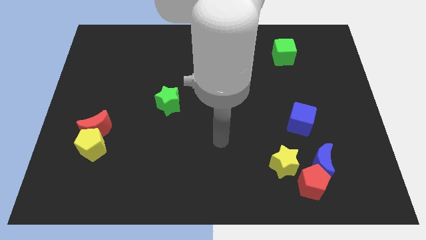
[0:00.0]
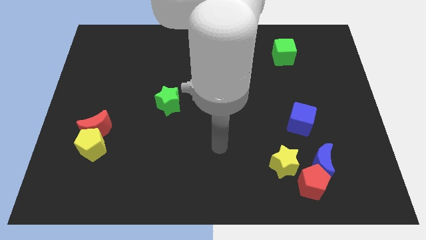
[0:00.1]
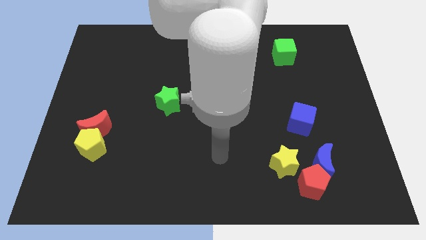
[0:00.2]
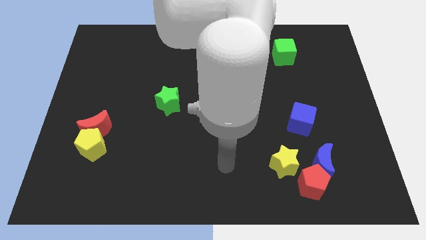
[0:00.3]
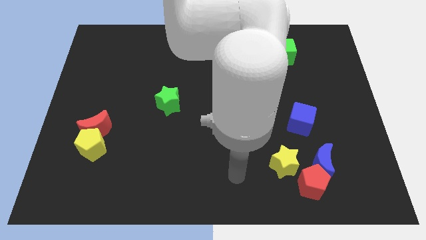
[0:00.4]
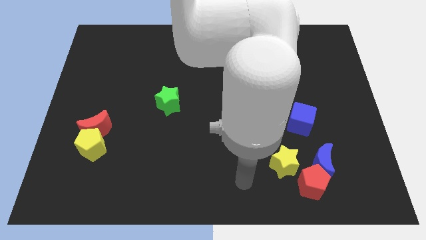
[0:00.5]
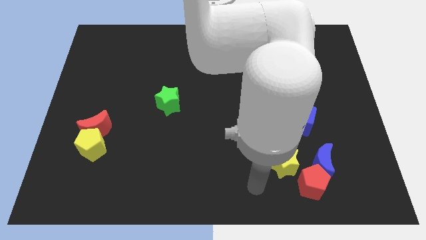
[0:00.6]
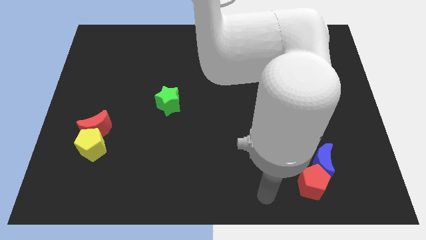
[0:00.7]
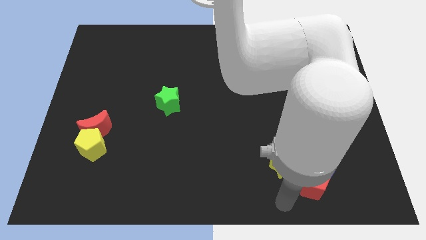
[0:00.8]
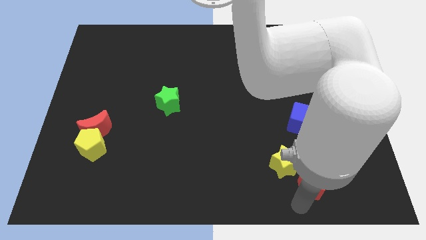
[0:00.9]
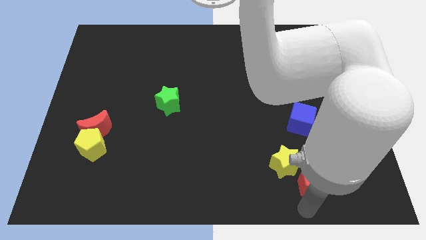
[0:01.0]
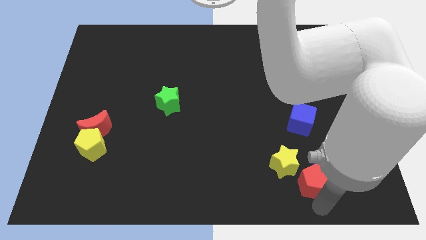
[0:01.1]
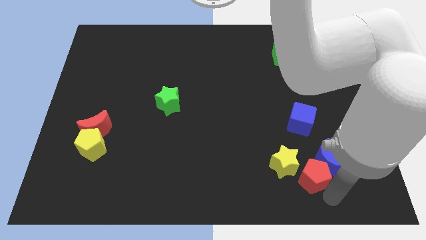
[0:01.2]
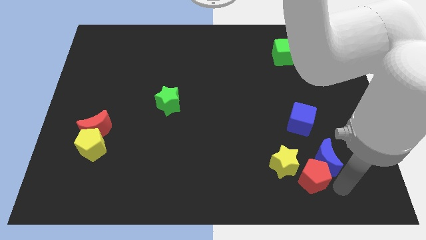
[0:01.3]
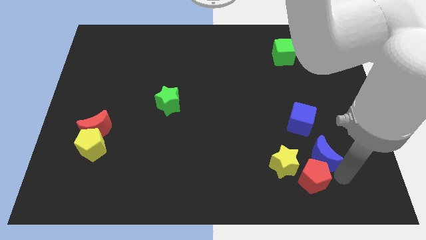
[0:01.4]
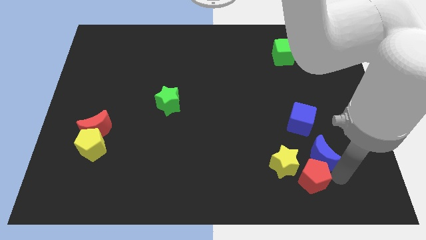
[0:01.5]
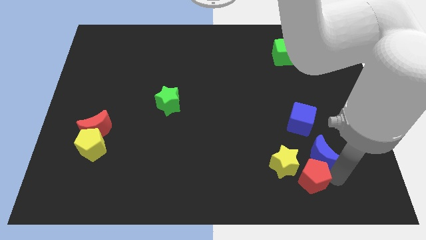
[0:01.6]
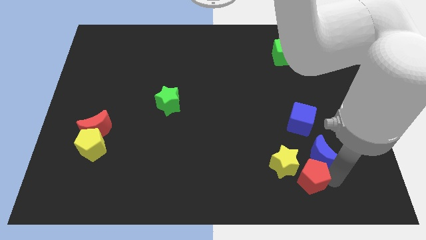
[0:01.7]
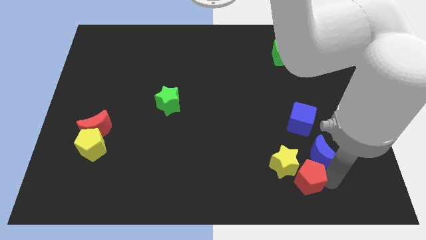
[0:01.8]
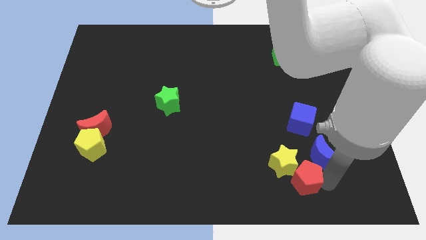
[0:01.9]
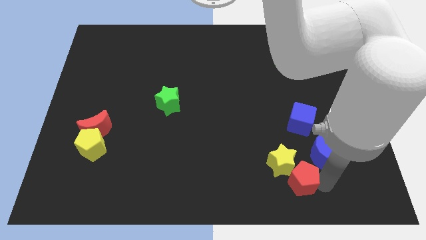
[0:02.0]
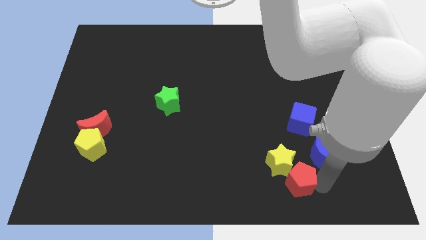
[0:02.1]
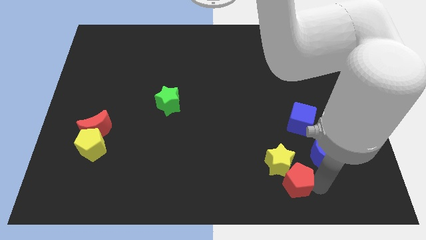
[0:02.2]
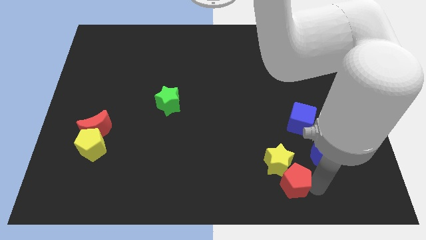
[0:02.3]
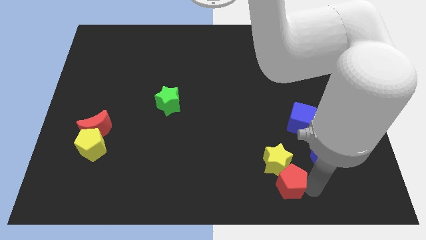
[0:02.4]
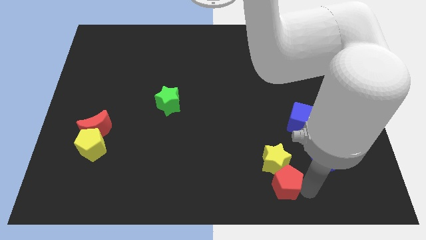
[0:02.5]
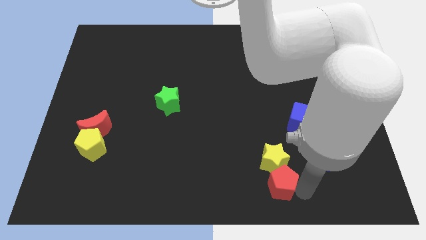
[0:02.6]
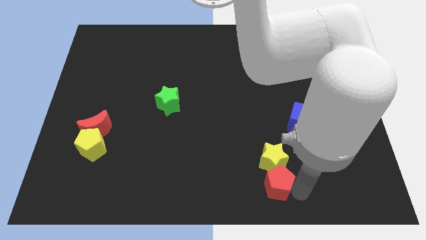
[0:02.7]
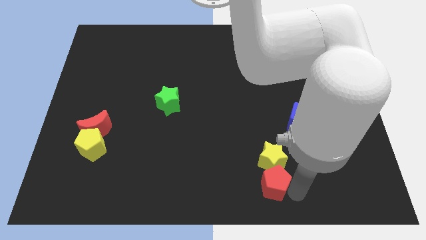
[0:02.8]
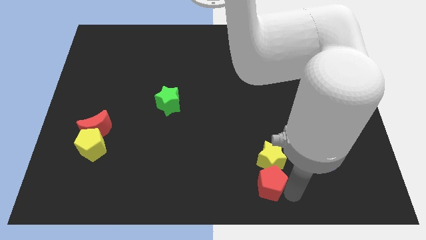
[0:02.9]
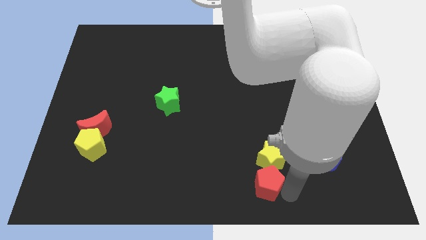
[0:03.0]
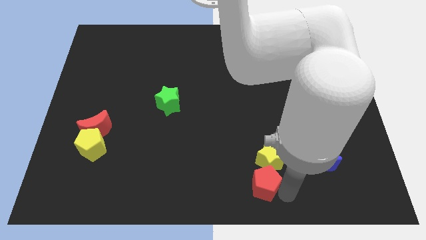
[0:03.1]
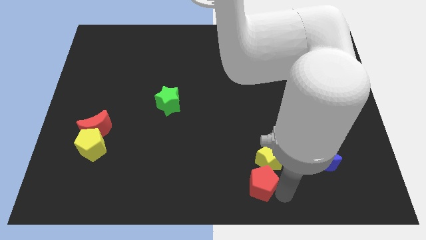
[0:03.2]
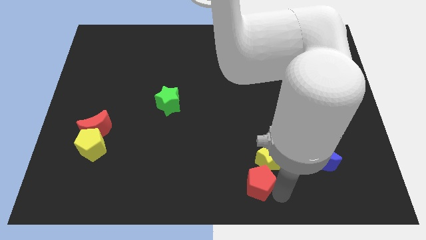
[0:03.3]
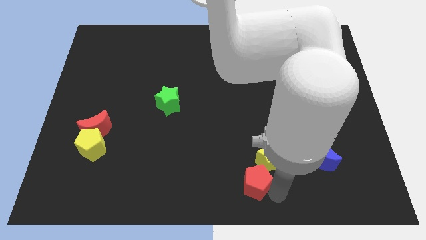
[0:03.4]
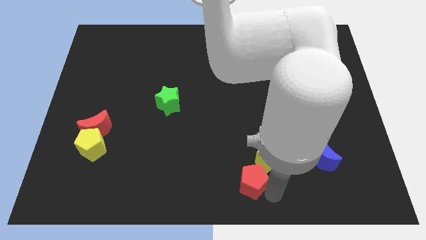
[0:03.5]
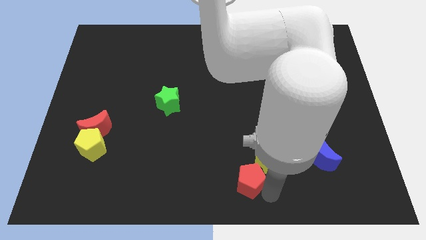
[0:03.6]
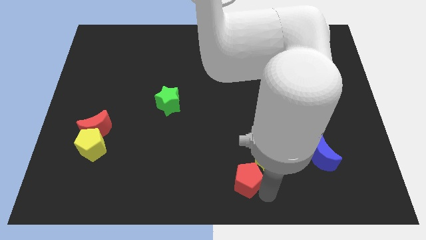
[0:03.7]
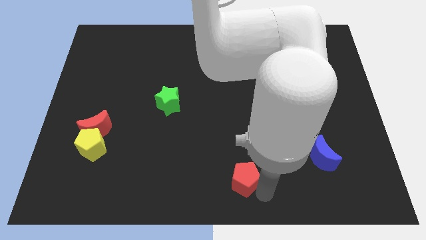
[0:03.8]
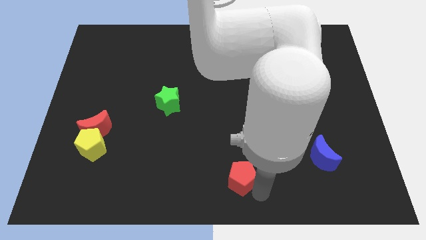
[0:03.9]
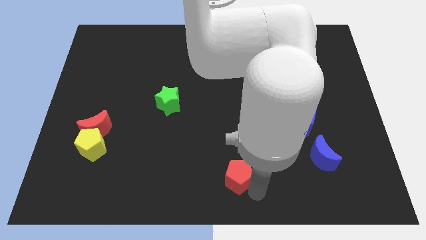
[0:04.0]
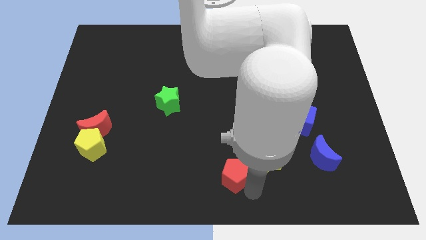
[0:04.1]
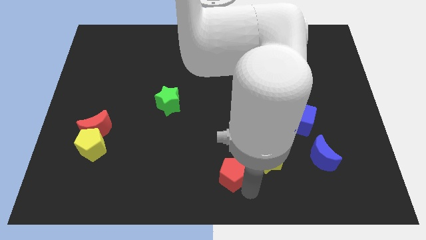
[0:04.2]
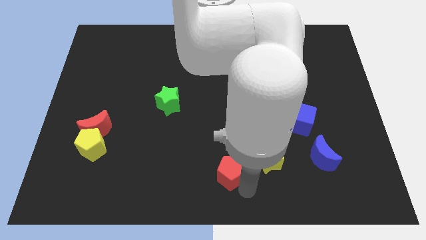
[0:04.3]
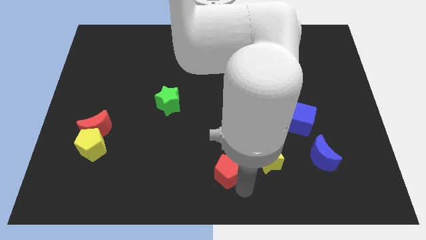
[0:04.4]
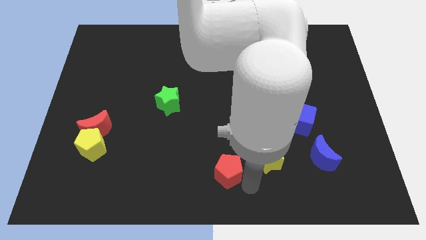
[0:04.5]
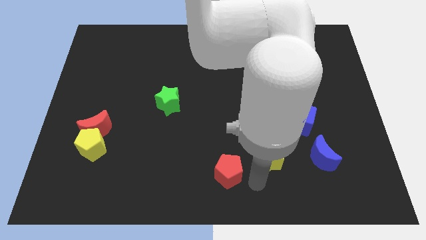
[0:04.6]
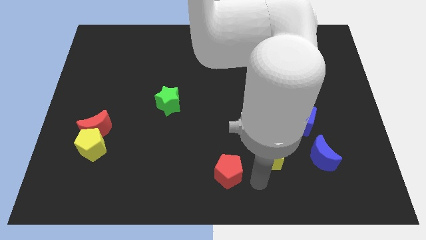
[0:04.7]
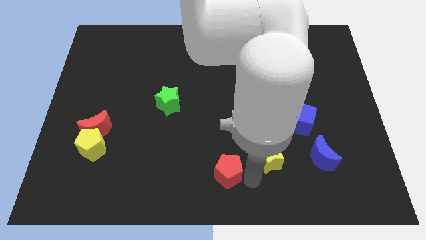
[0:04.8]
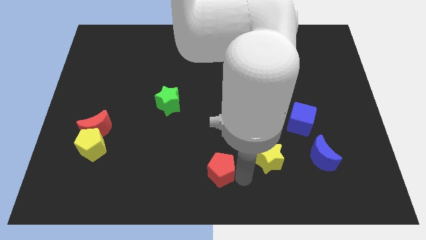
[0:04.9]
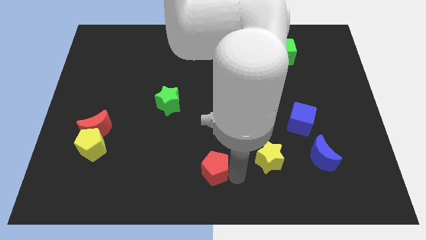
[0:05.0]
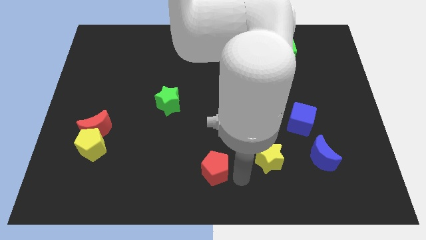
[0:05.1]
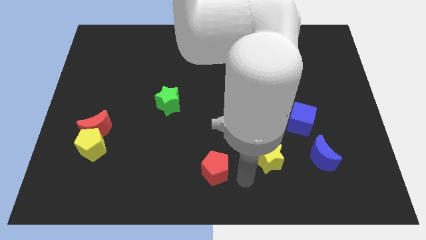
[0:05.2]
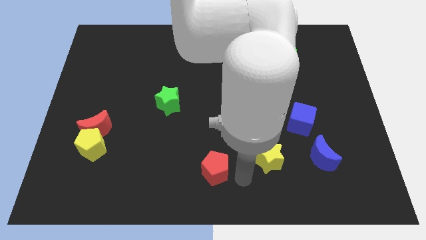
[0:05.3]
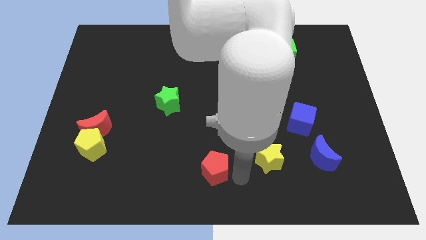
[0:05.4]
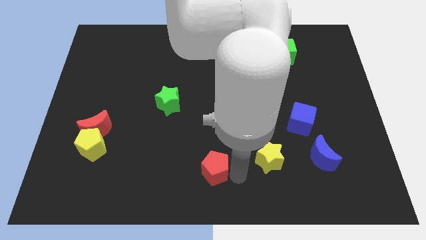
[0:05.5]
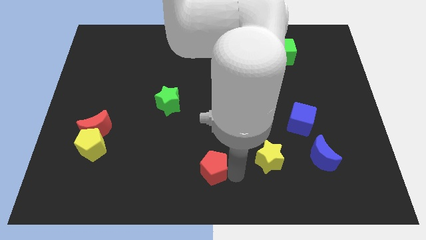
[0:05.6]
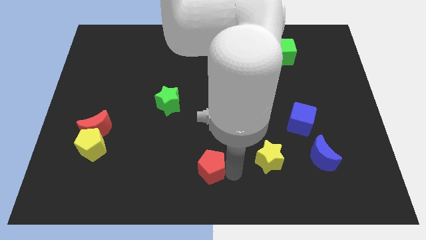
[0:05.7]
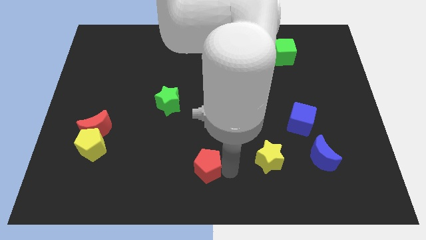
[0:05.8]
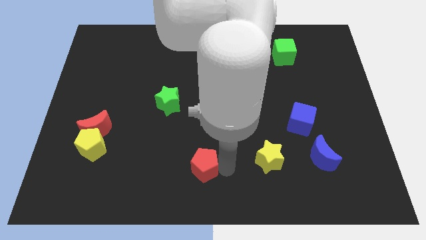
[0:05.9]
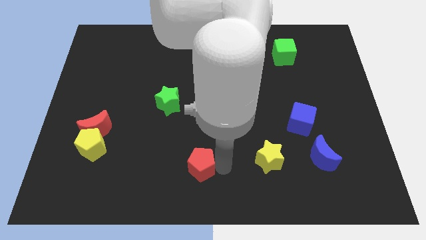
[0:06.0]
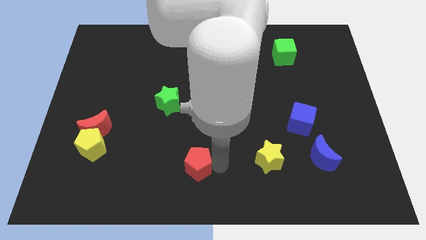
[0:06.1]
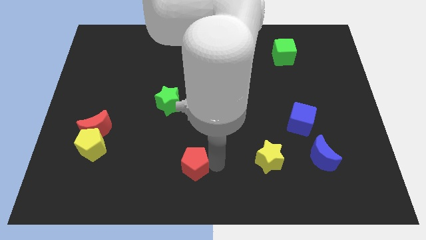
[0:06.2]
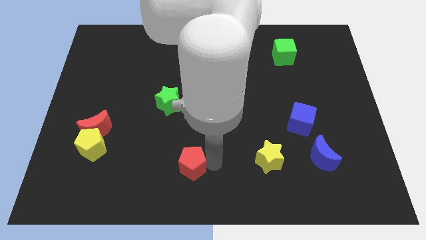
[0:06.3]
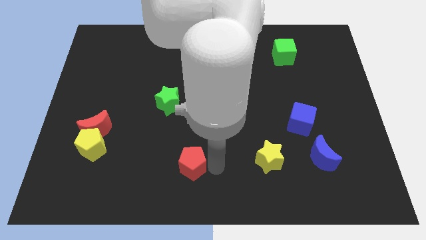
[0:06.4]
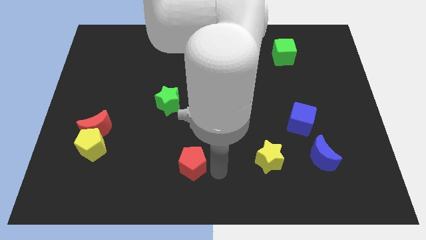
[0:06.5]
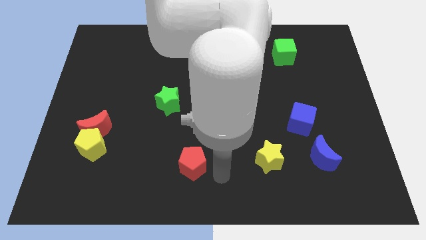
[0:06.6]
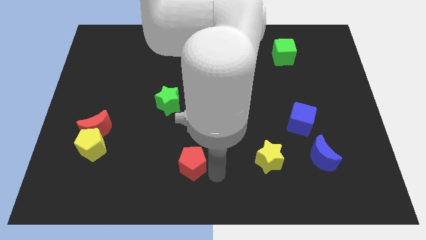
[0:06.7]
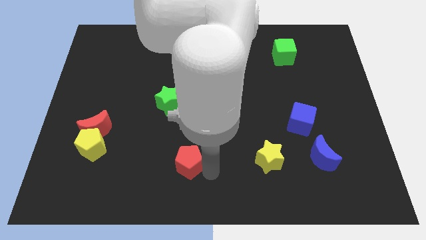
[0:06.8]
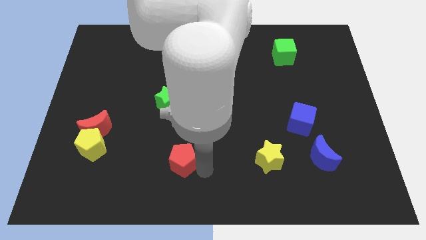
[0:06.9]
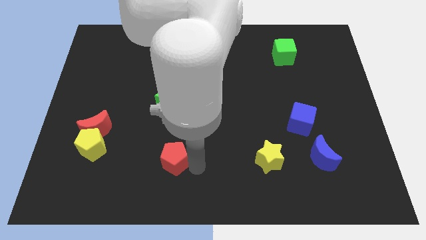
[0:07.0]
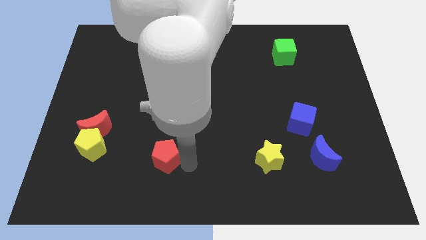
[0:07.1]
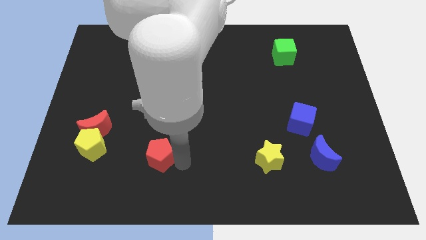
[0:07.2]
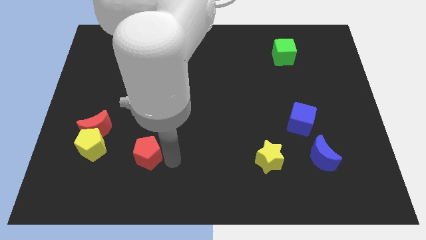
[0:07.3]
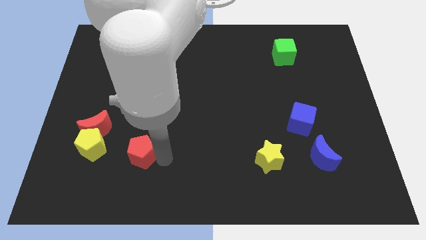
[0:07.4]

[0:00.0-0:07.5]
put the red pentagon to the bottom right side of the red moon
